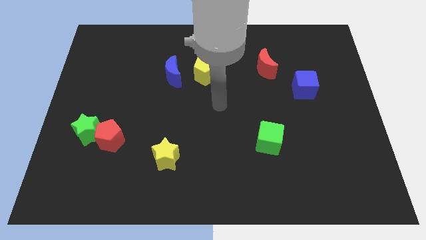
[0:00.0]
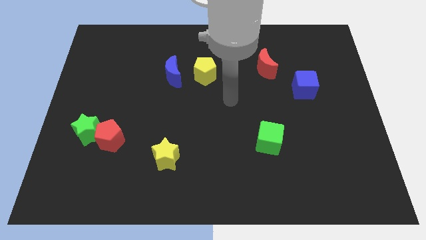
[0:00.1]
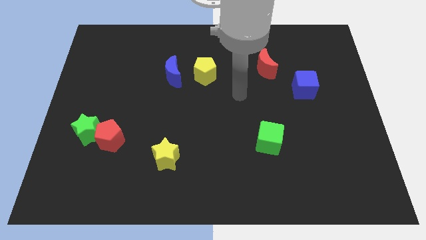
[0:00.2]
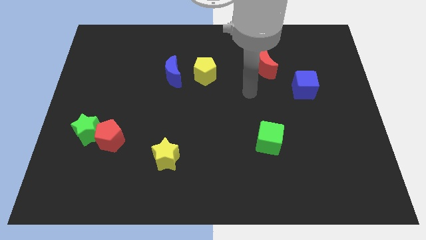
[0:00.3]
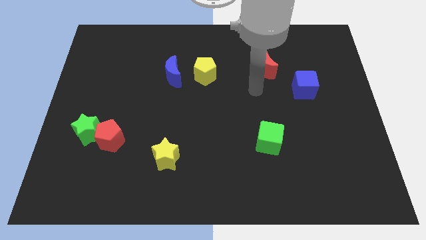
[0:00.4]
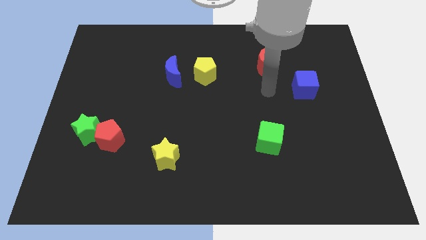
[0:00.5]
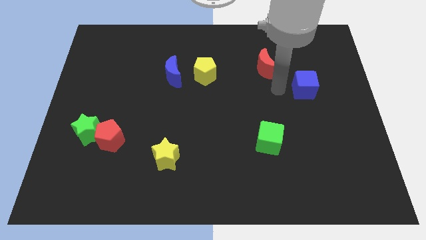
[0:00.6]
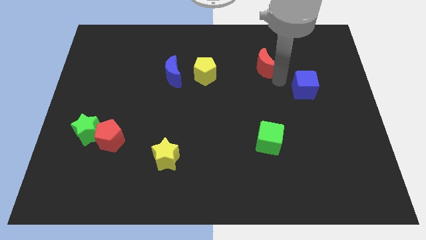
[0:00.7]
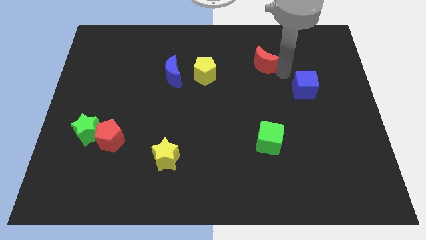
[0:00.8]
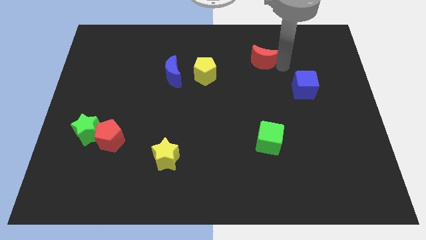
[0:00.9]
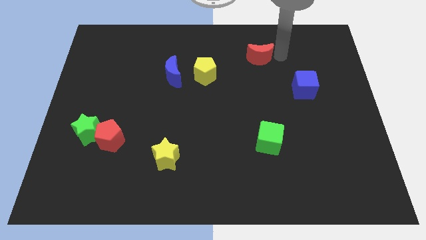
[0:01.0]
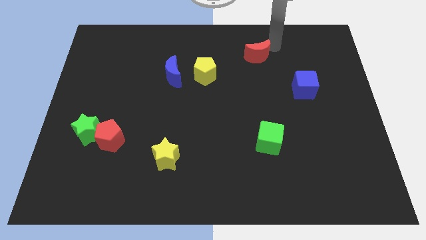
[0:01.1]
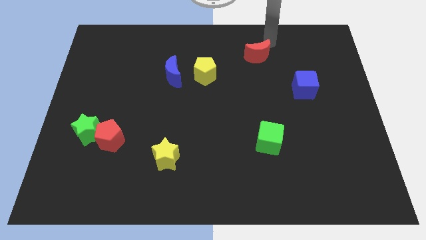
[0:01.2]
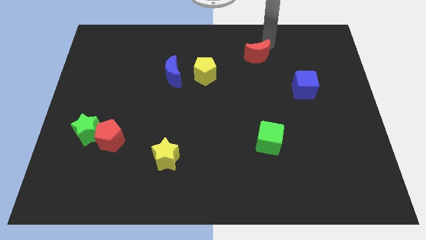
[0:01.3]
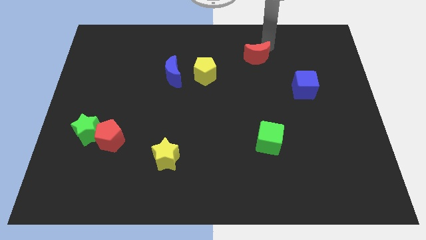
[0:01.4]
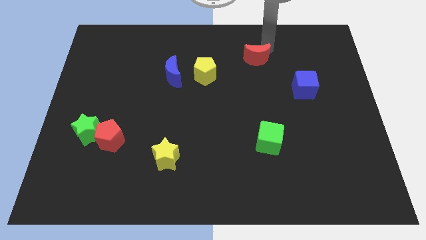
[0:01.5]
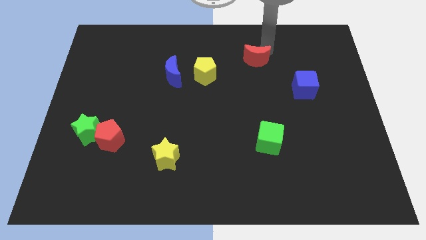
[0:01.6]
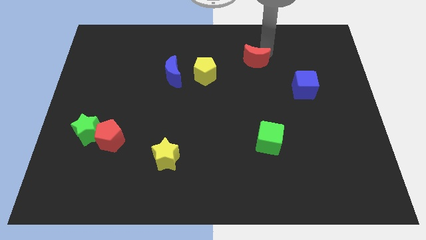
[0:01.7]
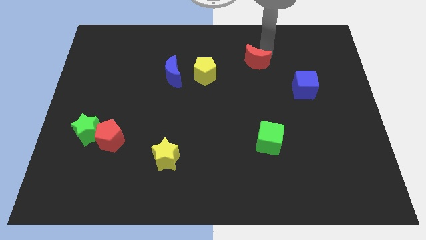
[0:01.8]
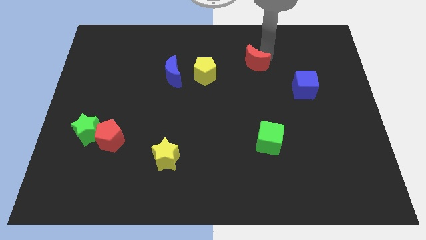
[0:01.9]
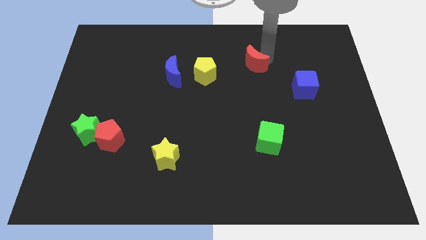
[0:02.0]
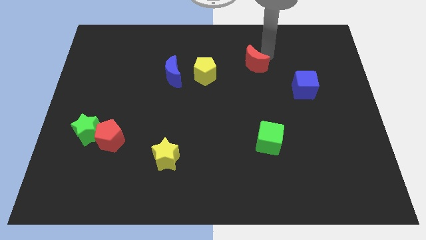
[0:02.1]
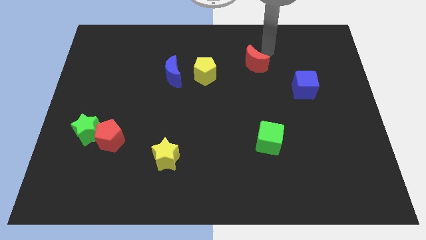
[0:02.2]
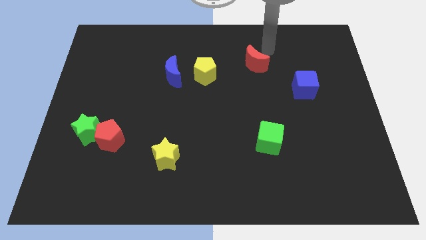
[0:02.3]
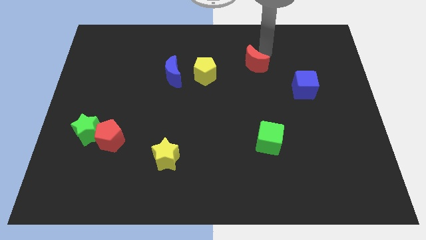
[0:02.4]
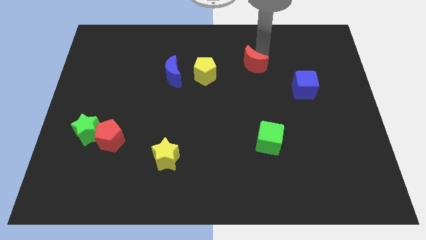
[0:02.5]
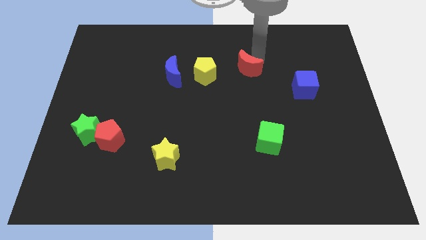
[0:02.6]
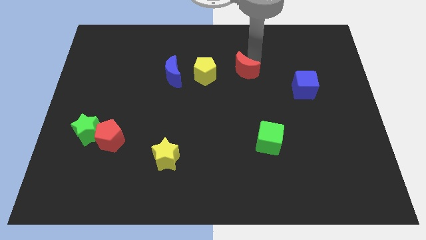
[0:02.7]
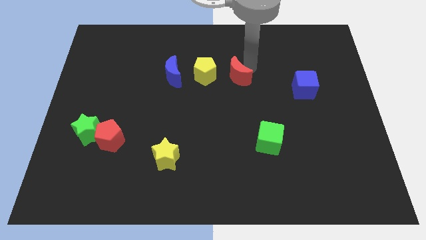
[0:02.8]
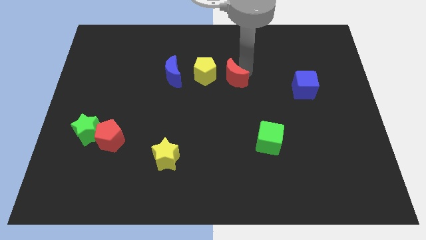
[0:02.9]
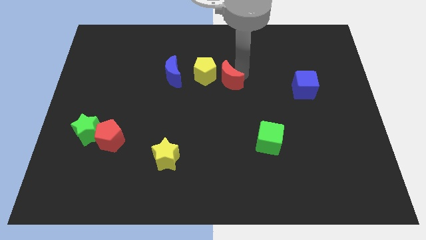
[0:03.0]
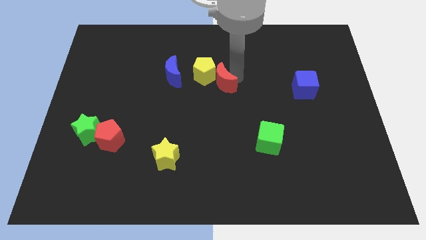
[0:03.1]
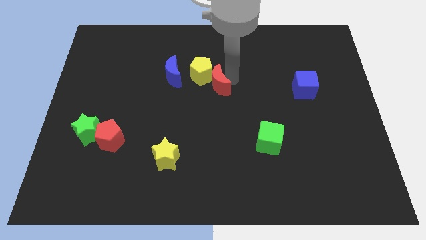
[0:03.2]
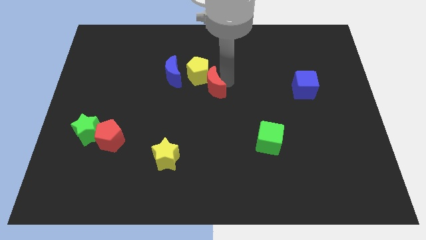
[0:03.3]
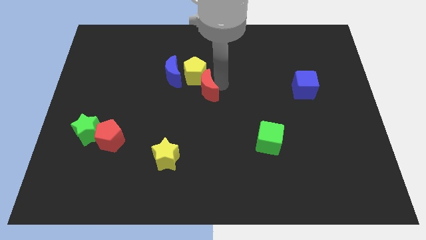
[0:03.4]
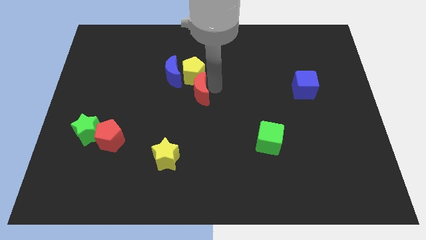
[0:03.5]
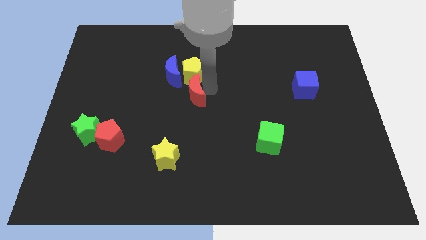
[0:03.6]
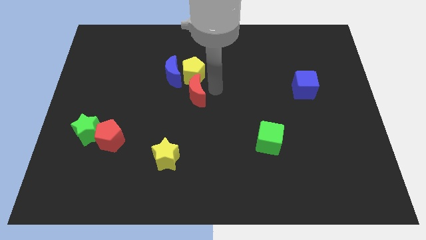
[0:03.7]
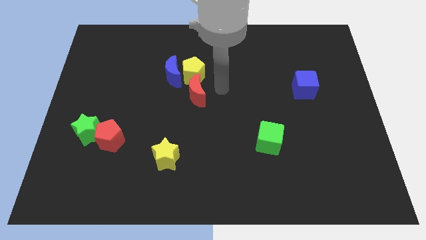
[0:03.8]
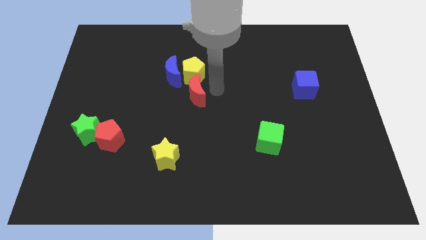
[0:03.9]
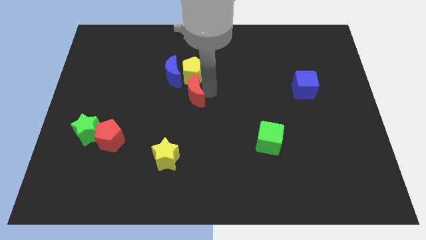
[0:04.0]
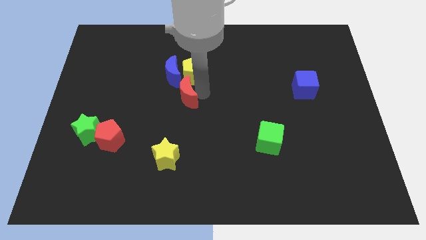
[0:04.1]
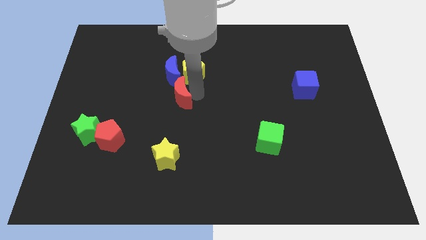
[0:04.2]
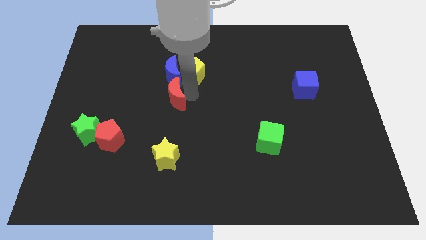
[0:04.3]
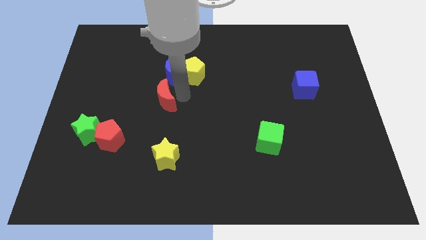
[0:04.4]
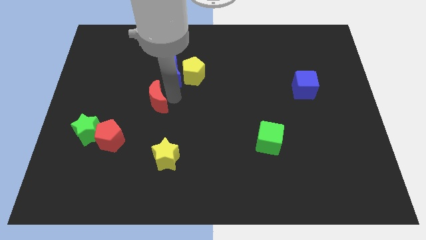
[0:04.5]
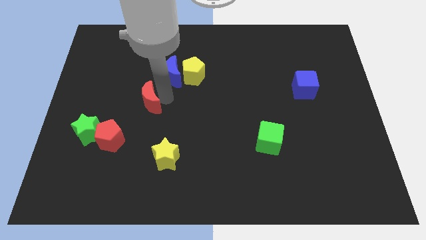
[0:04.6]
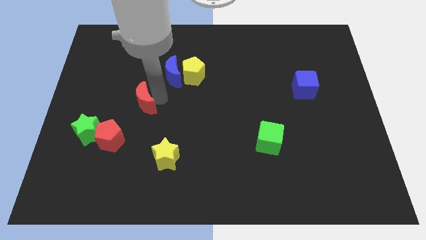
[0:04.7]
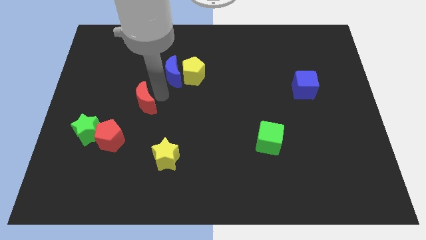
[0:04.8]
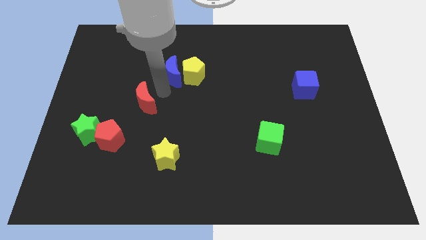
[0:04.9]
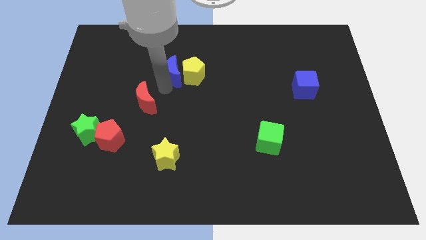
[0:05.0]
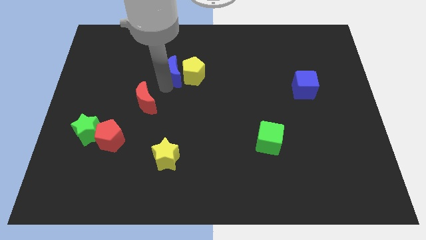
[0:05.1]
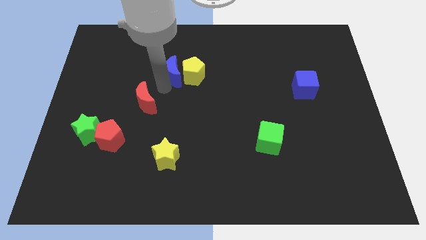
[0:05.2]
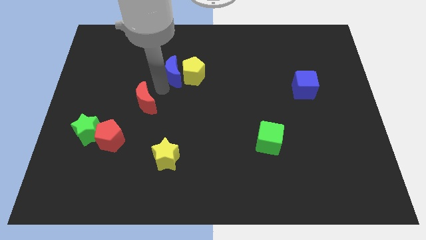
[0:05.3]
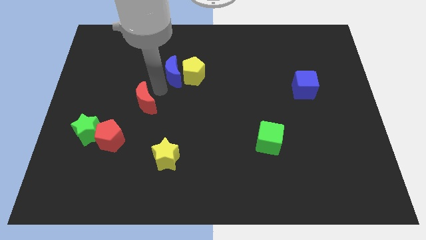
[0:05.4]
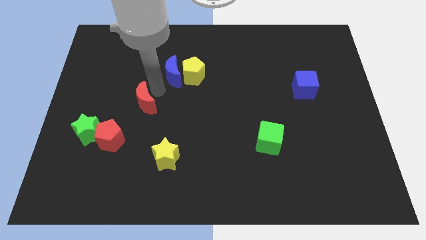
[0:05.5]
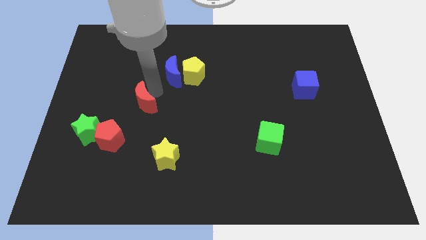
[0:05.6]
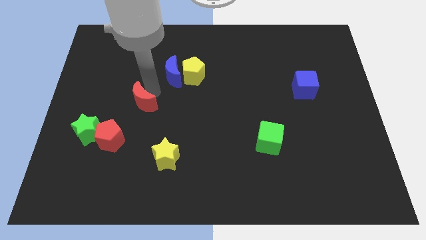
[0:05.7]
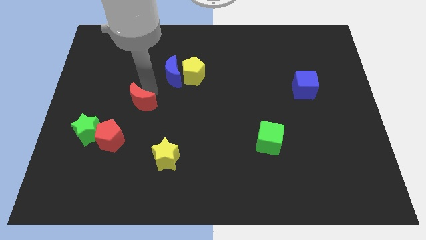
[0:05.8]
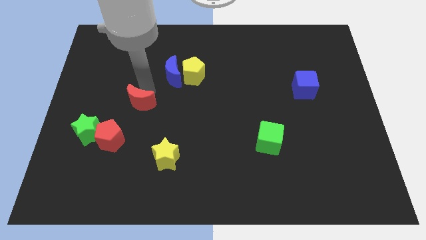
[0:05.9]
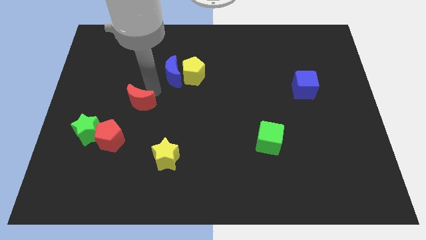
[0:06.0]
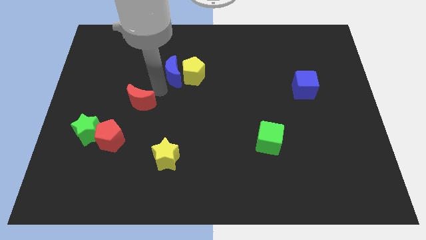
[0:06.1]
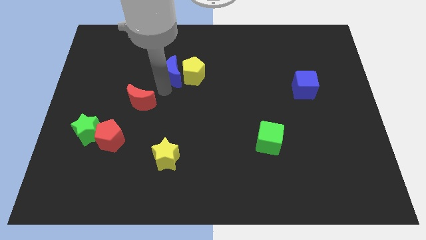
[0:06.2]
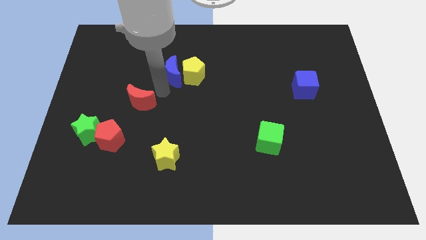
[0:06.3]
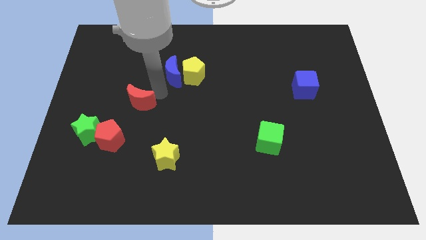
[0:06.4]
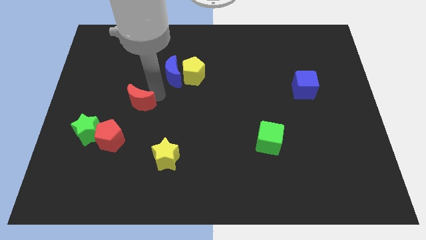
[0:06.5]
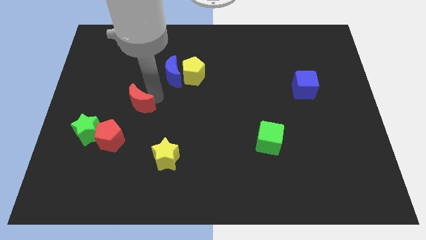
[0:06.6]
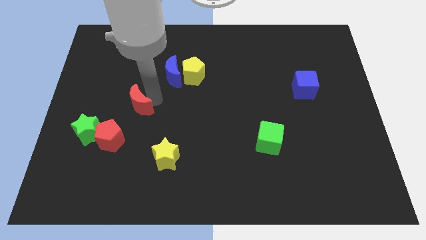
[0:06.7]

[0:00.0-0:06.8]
push the red moon to the top right side of the green star

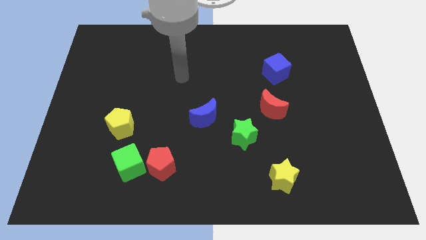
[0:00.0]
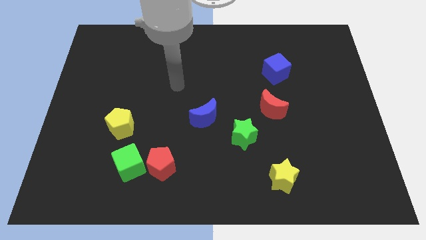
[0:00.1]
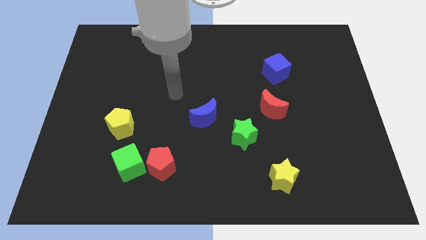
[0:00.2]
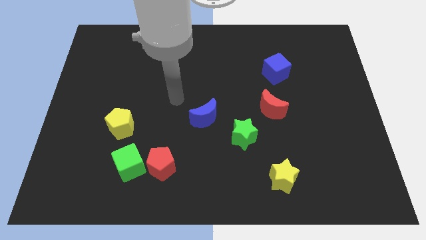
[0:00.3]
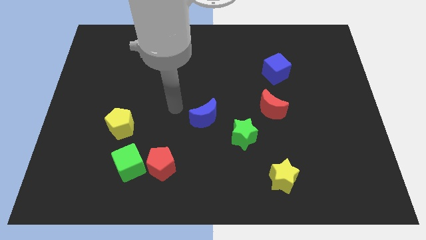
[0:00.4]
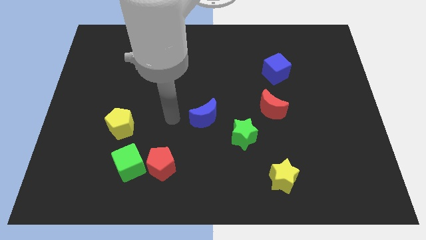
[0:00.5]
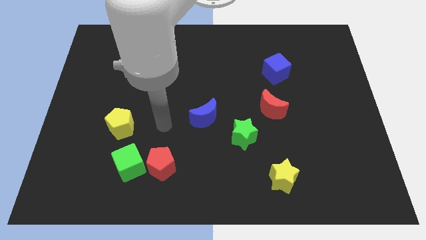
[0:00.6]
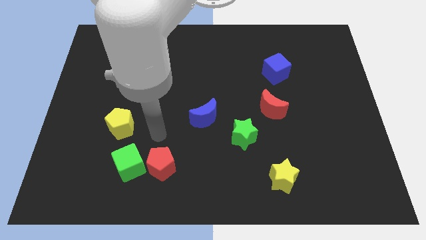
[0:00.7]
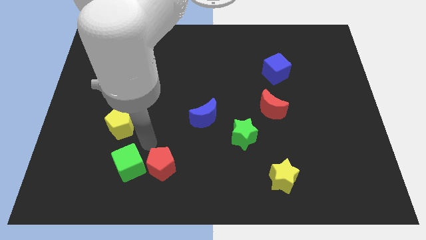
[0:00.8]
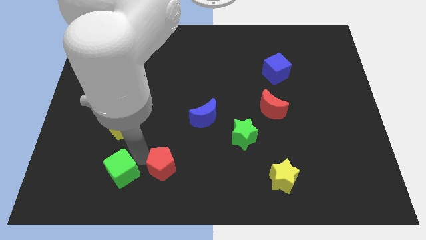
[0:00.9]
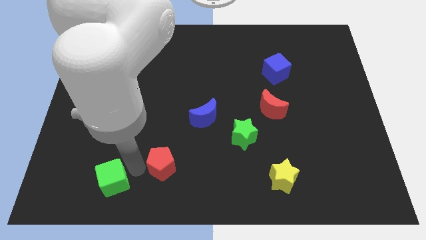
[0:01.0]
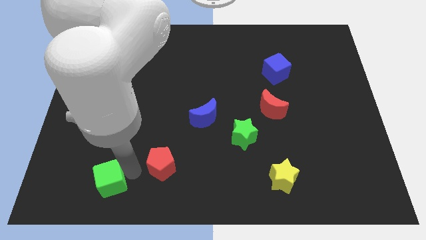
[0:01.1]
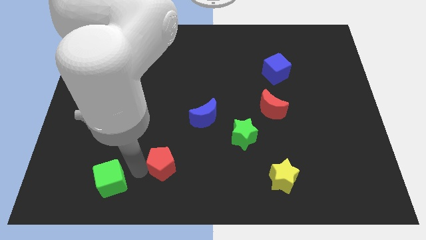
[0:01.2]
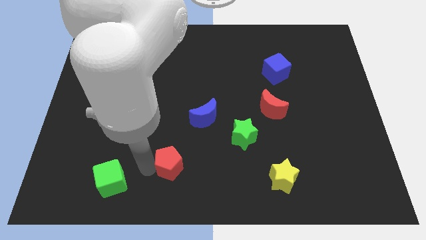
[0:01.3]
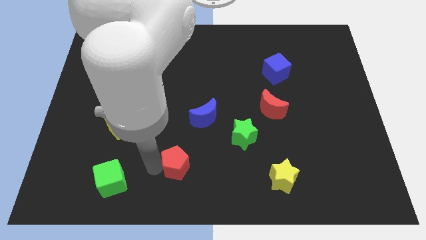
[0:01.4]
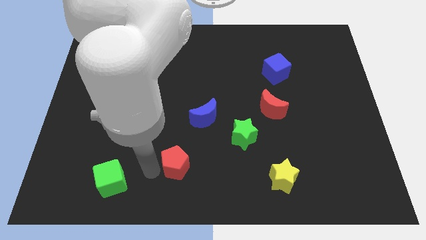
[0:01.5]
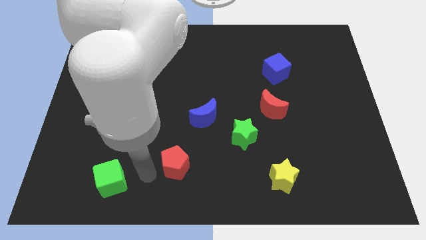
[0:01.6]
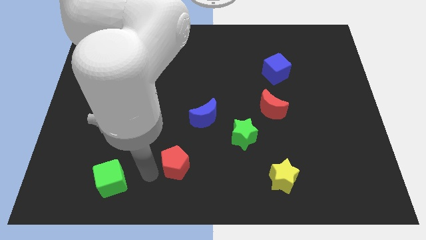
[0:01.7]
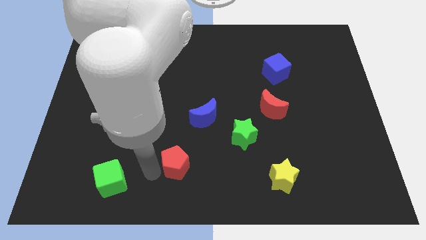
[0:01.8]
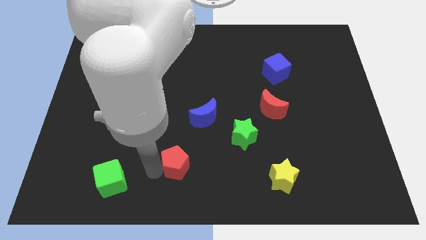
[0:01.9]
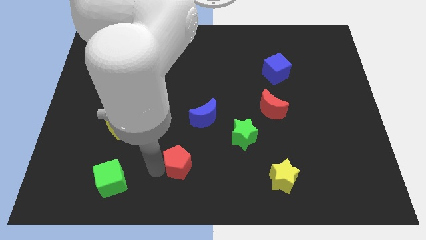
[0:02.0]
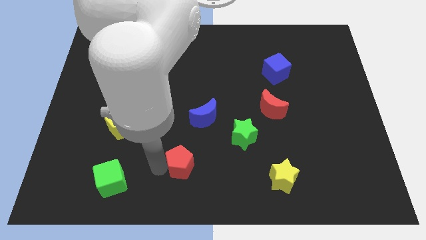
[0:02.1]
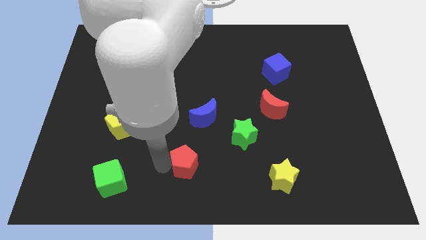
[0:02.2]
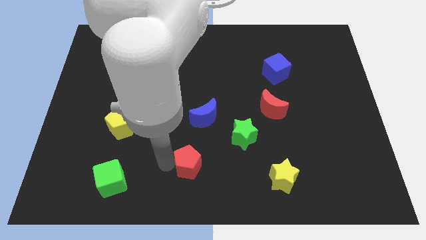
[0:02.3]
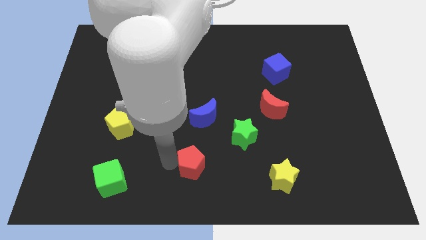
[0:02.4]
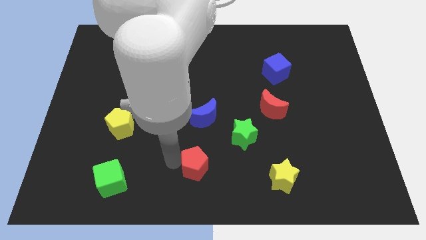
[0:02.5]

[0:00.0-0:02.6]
slide the red pentagon diagonally down and to the left of the green star
